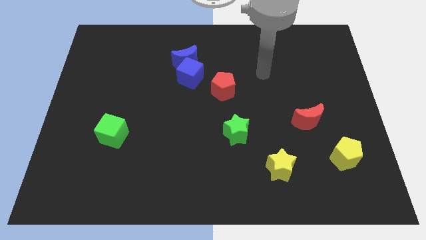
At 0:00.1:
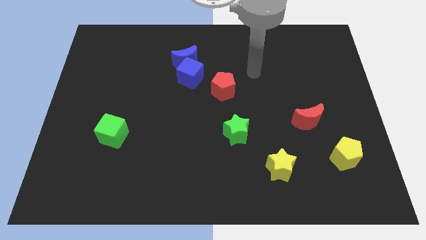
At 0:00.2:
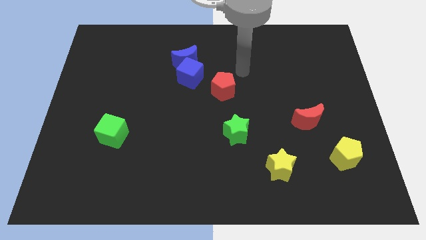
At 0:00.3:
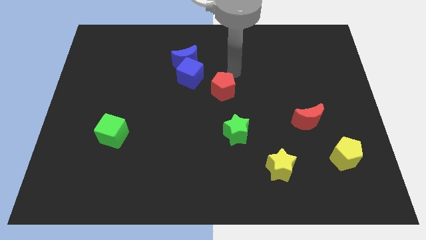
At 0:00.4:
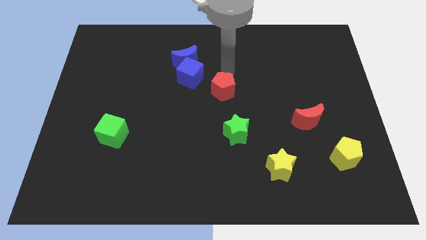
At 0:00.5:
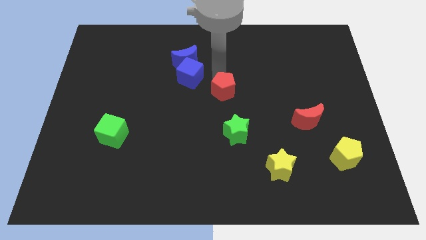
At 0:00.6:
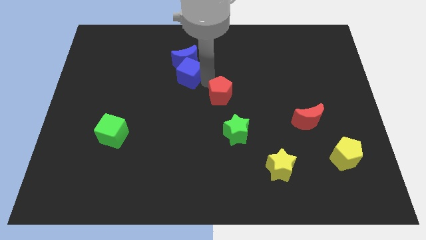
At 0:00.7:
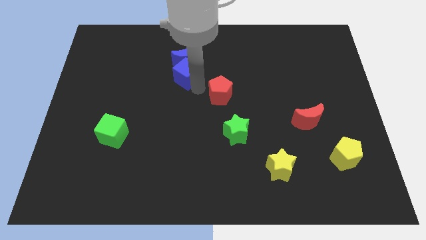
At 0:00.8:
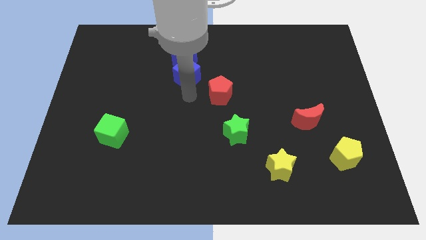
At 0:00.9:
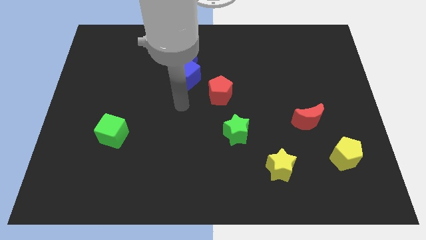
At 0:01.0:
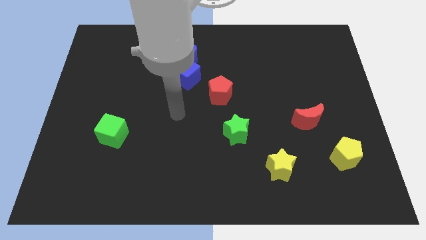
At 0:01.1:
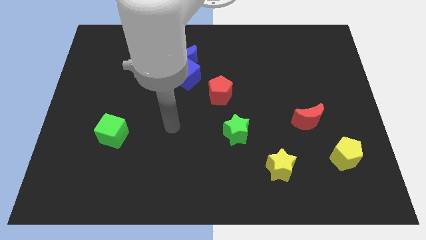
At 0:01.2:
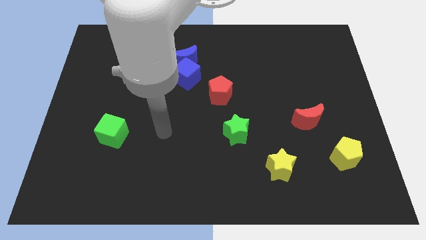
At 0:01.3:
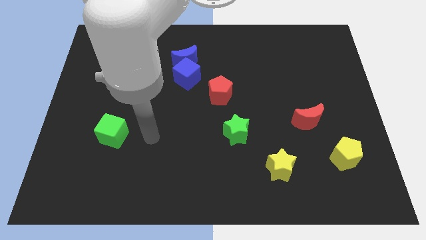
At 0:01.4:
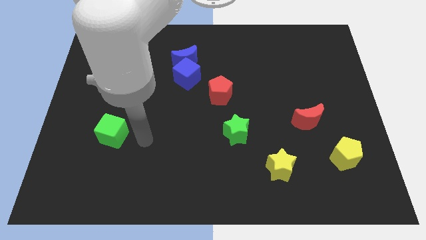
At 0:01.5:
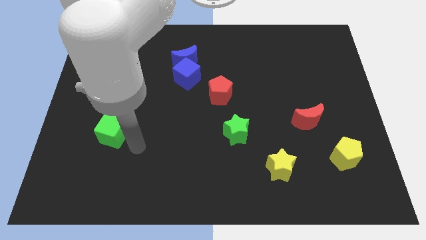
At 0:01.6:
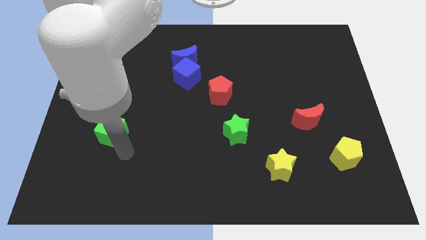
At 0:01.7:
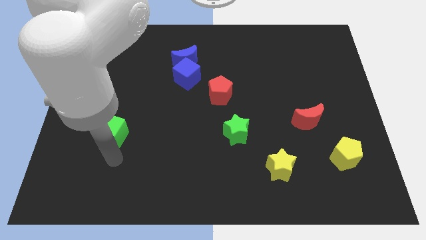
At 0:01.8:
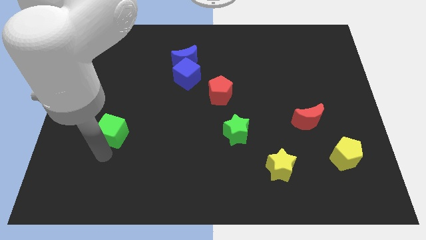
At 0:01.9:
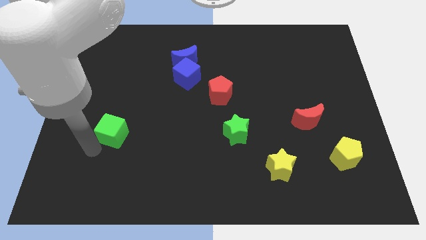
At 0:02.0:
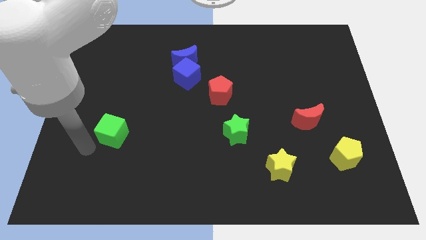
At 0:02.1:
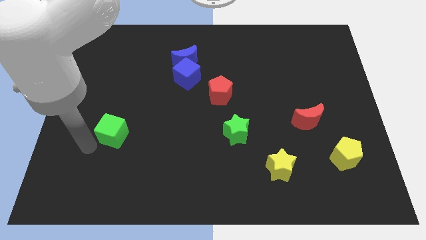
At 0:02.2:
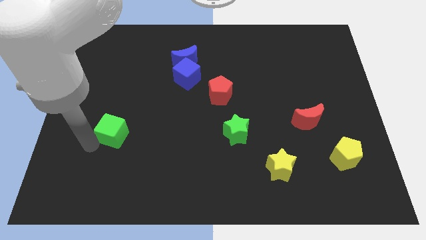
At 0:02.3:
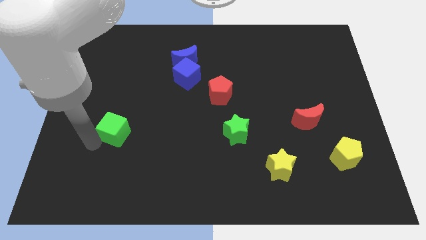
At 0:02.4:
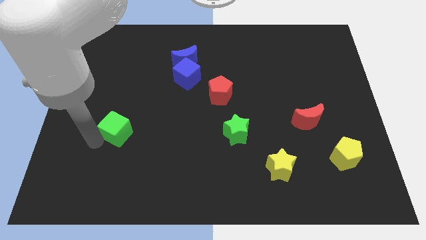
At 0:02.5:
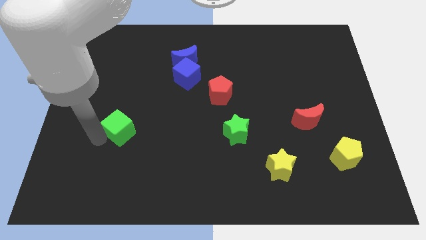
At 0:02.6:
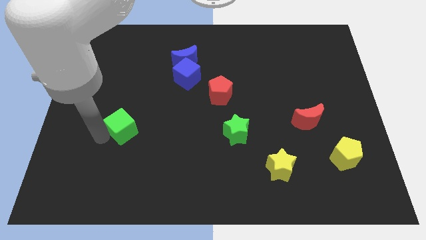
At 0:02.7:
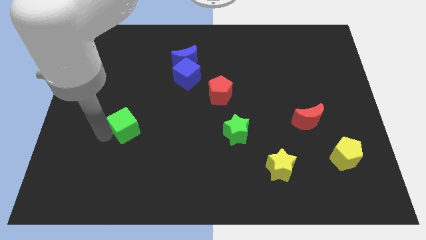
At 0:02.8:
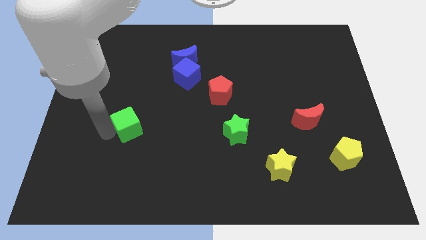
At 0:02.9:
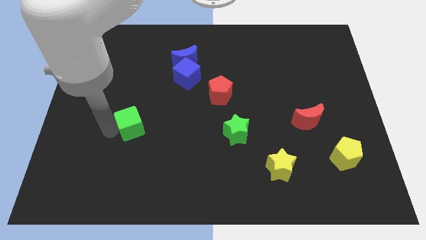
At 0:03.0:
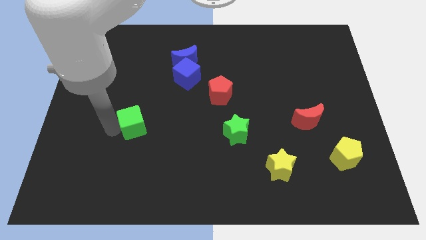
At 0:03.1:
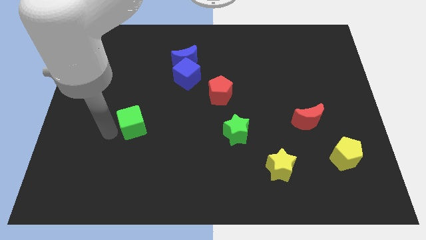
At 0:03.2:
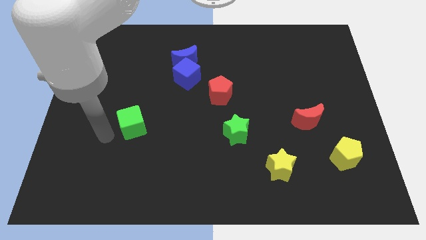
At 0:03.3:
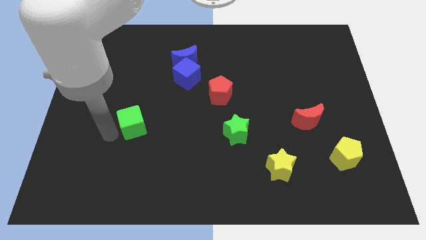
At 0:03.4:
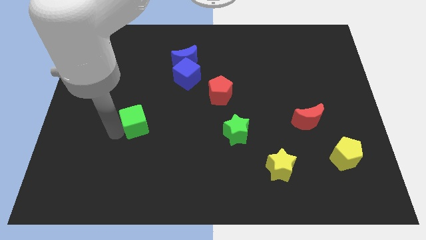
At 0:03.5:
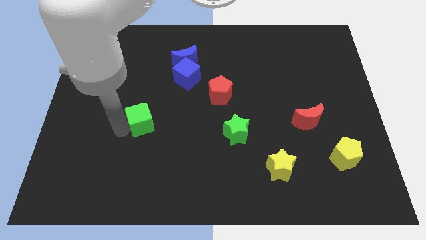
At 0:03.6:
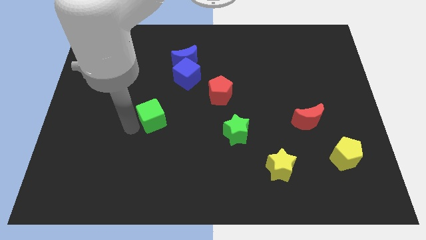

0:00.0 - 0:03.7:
slightly slide the green cube diagonally upwards and to the right

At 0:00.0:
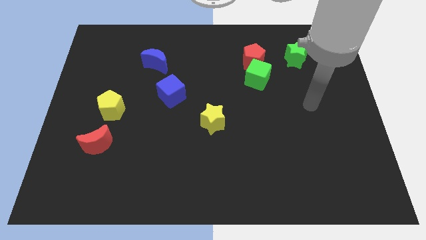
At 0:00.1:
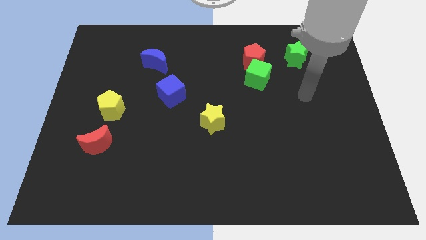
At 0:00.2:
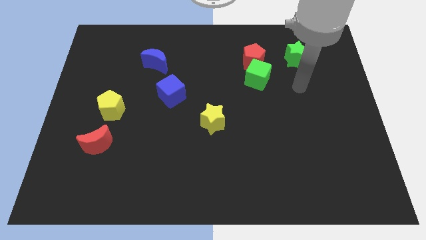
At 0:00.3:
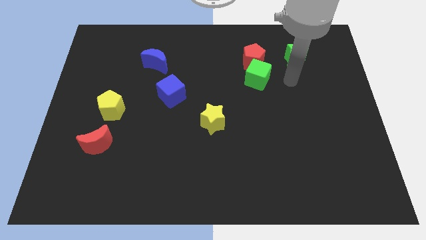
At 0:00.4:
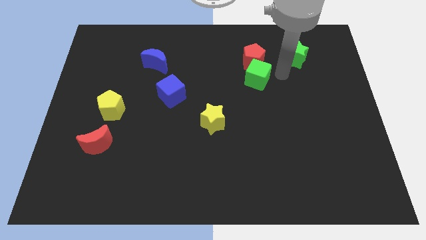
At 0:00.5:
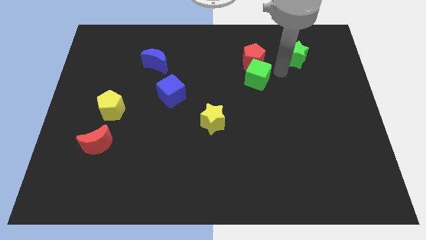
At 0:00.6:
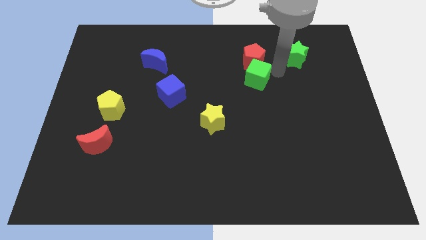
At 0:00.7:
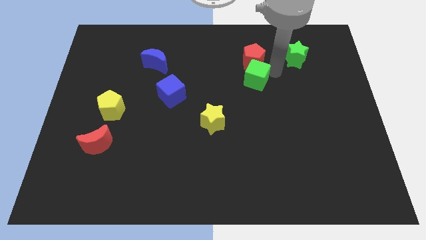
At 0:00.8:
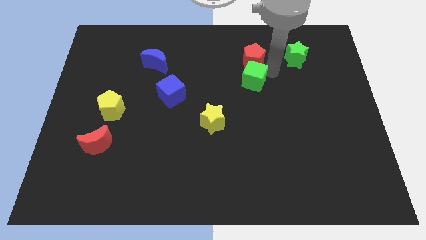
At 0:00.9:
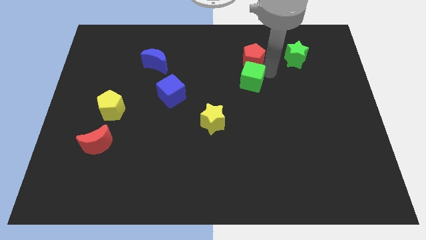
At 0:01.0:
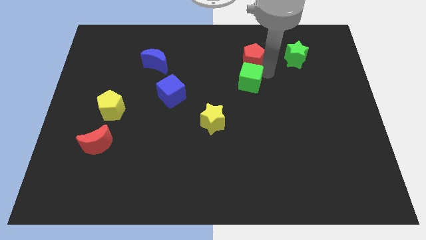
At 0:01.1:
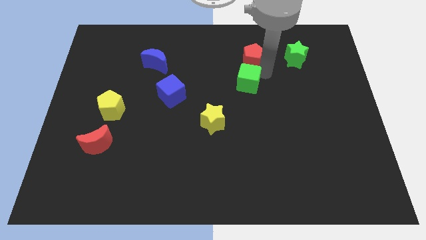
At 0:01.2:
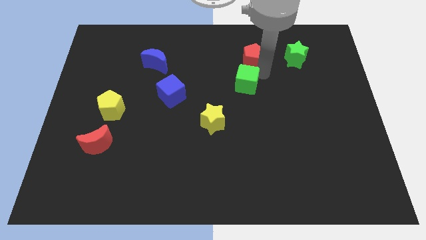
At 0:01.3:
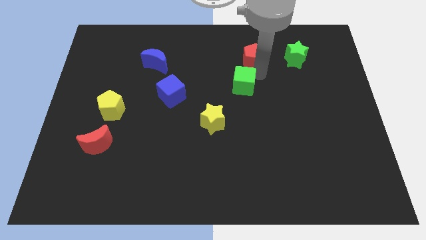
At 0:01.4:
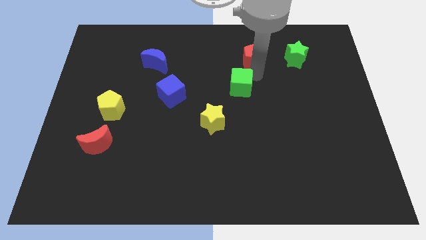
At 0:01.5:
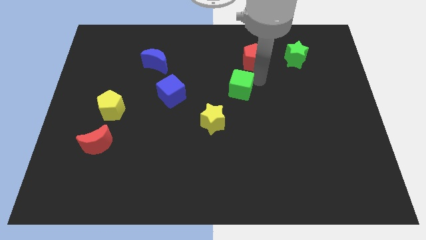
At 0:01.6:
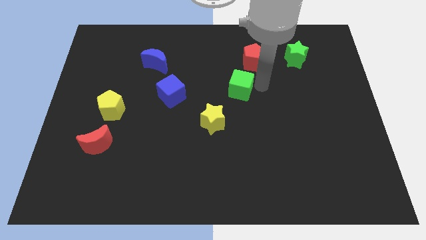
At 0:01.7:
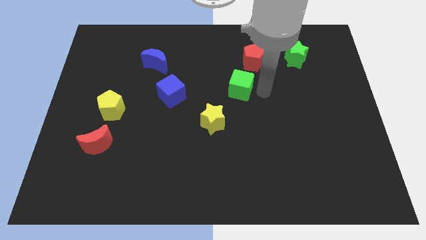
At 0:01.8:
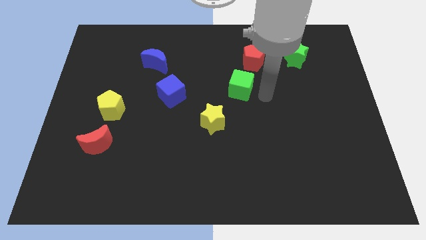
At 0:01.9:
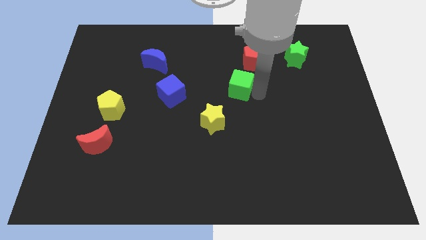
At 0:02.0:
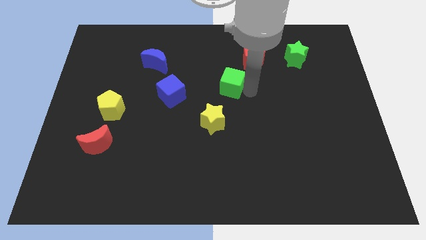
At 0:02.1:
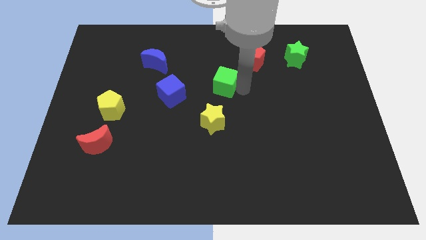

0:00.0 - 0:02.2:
move the green cube a bit left

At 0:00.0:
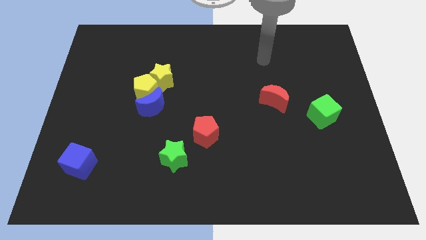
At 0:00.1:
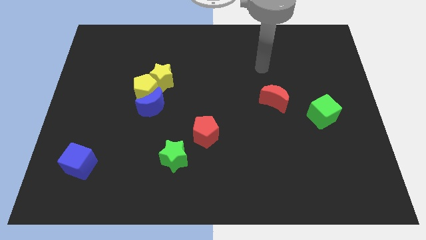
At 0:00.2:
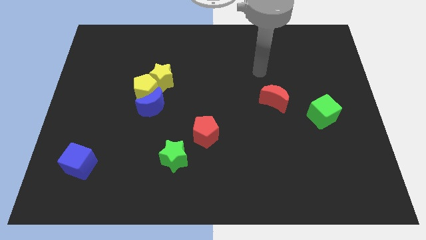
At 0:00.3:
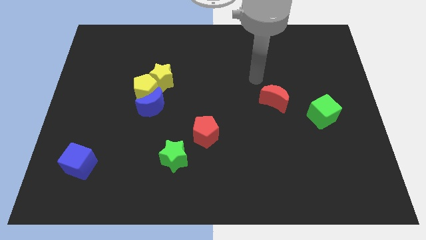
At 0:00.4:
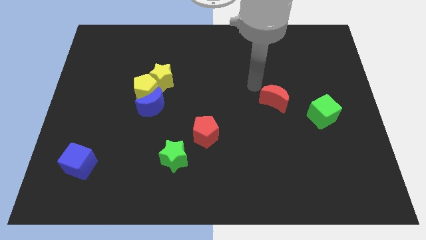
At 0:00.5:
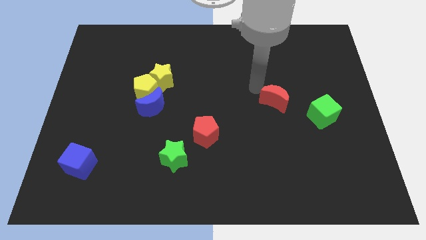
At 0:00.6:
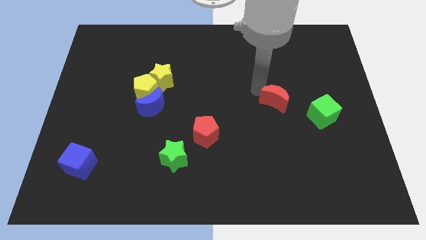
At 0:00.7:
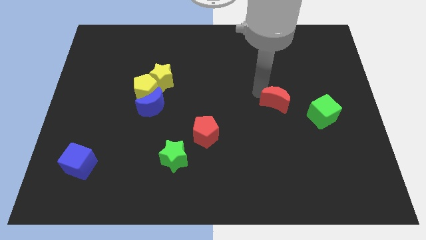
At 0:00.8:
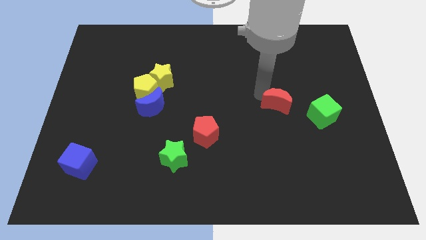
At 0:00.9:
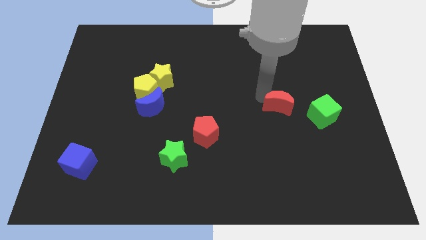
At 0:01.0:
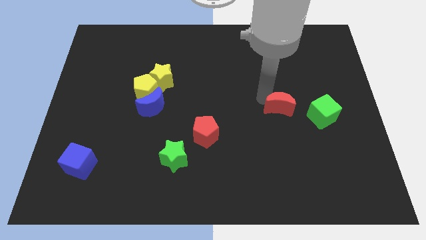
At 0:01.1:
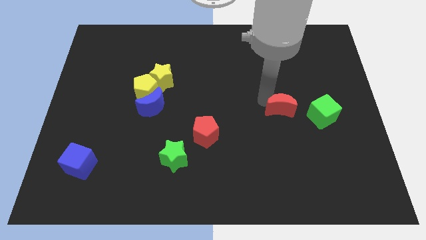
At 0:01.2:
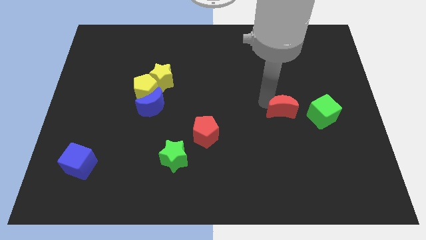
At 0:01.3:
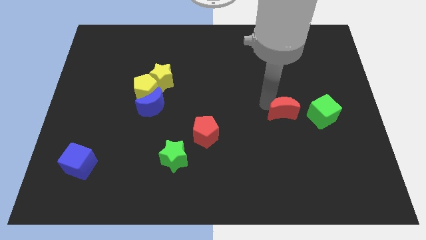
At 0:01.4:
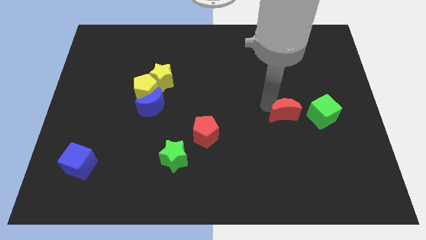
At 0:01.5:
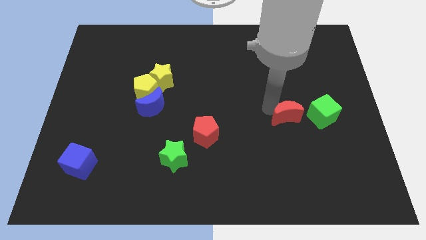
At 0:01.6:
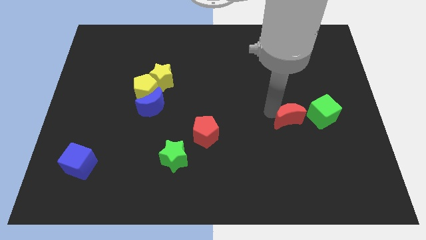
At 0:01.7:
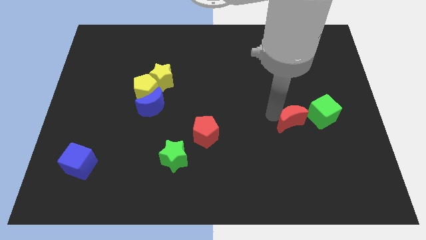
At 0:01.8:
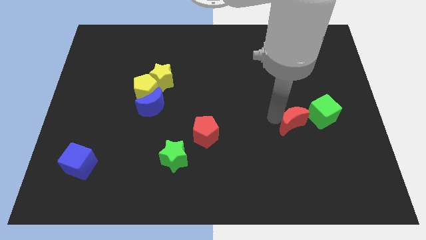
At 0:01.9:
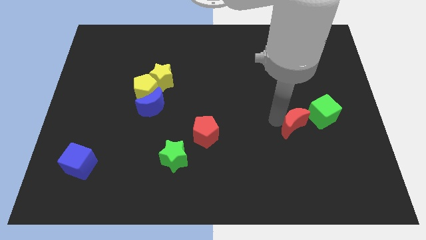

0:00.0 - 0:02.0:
slightly move the red moon downwards and then right
